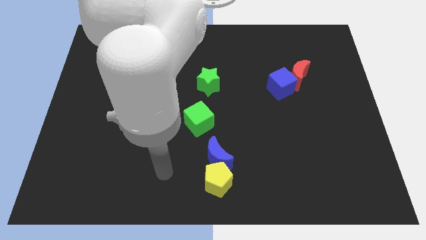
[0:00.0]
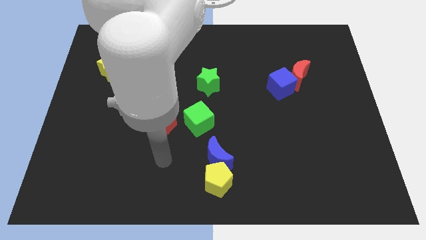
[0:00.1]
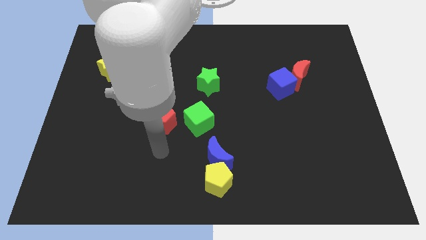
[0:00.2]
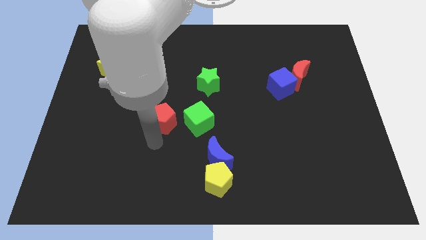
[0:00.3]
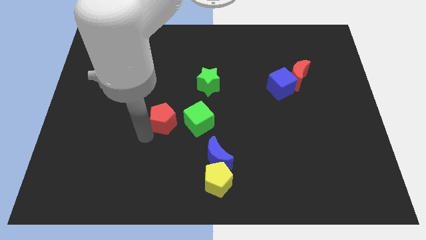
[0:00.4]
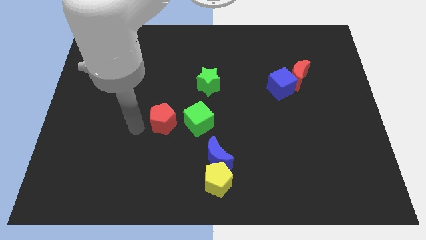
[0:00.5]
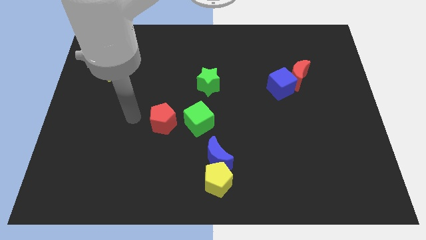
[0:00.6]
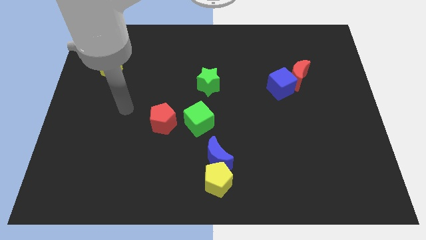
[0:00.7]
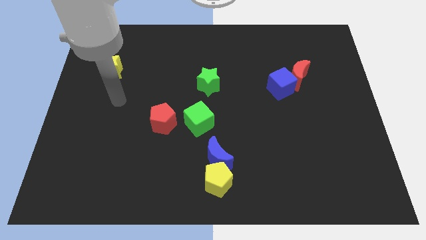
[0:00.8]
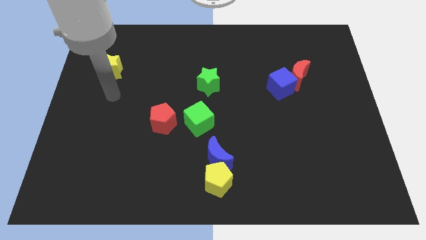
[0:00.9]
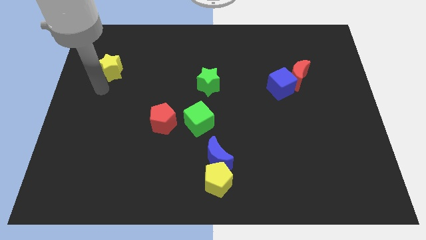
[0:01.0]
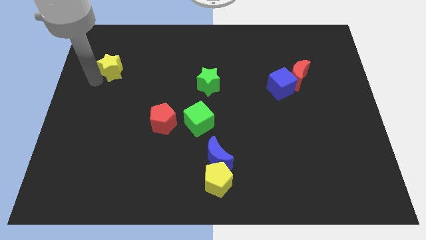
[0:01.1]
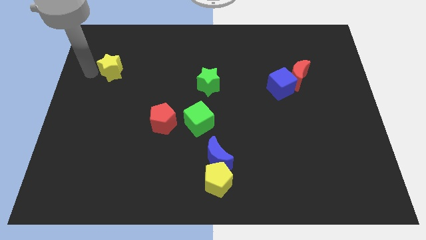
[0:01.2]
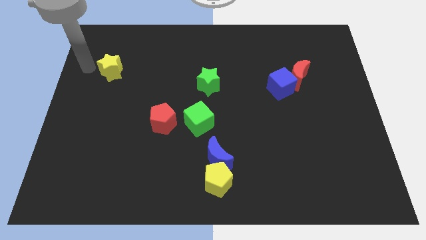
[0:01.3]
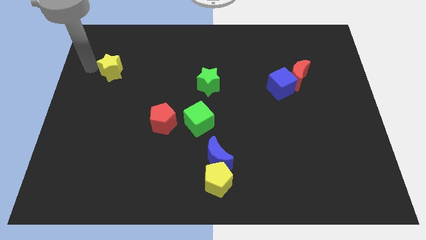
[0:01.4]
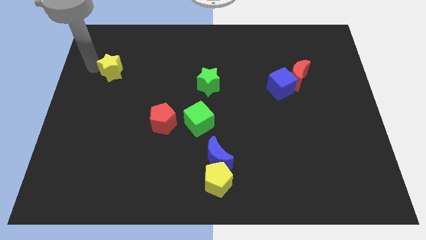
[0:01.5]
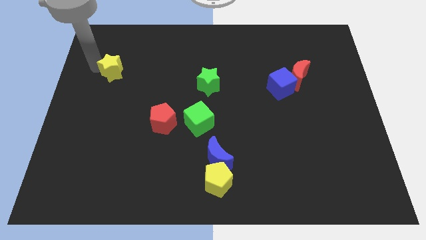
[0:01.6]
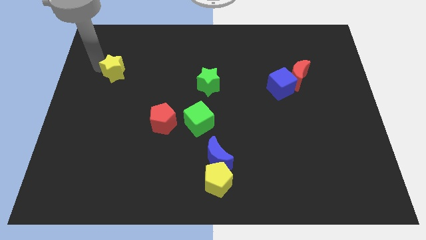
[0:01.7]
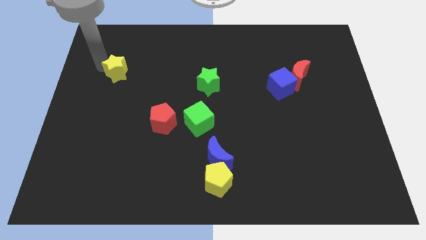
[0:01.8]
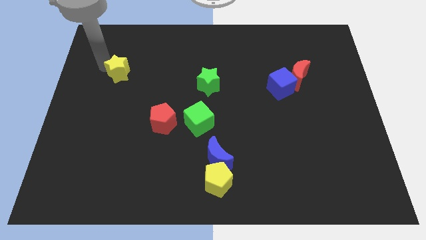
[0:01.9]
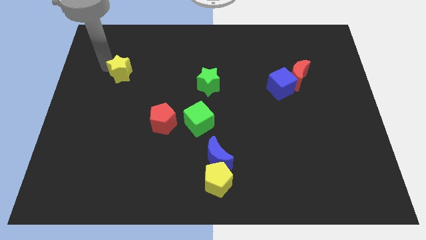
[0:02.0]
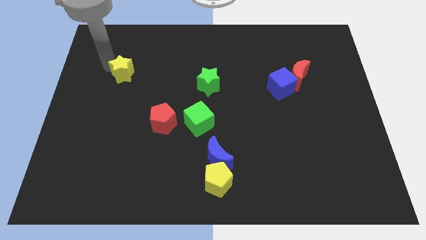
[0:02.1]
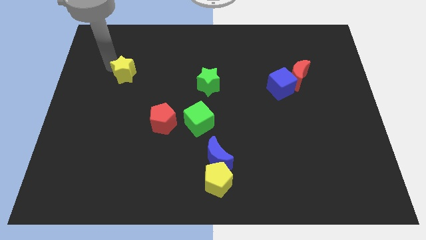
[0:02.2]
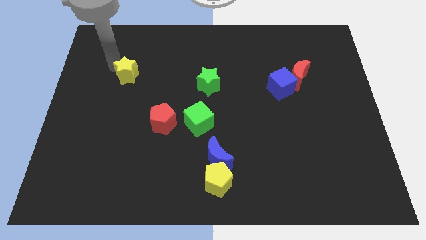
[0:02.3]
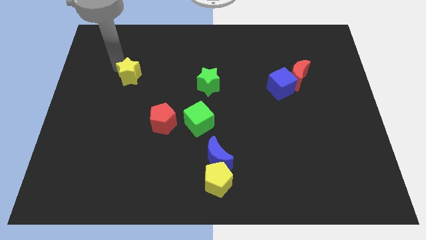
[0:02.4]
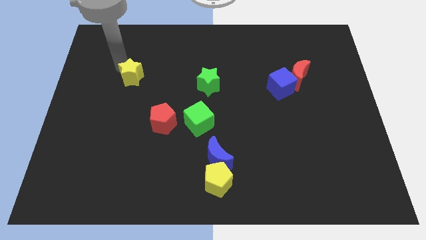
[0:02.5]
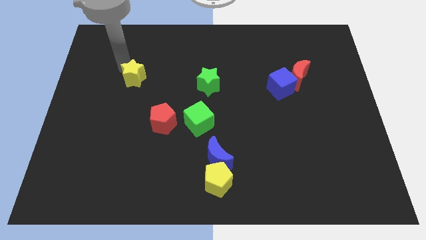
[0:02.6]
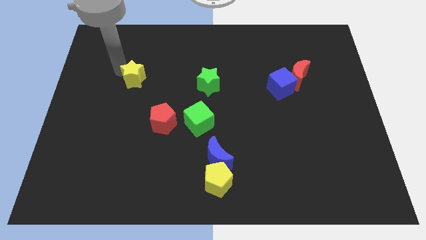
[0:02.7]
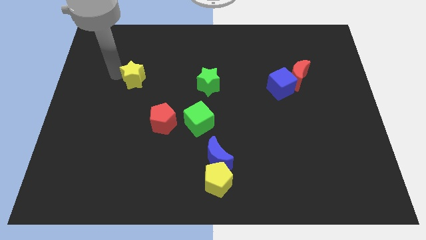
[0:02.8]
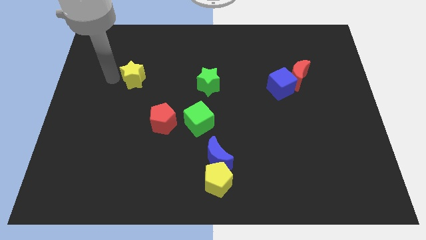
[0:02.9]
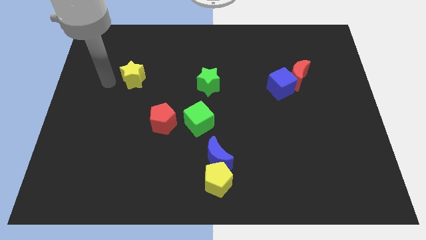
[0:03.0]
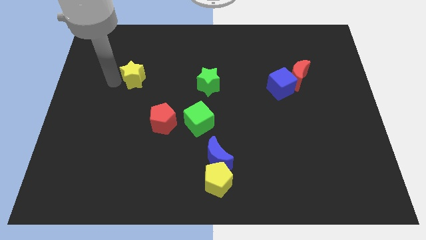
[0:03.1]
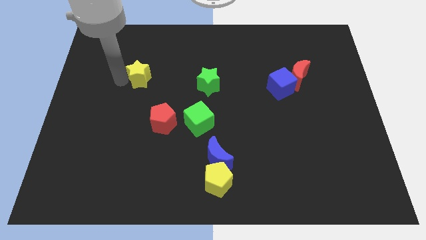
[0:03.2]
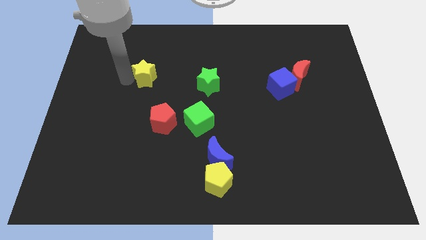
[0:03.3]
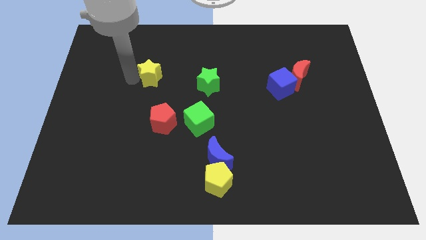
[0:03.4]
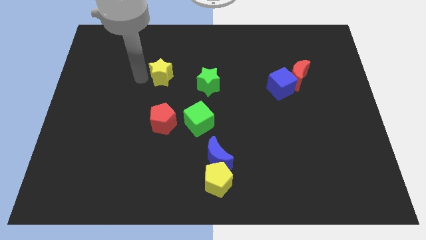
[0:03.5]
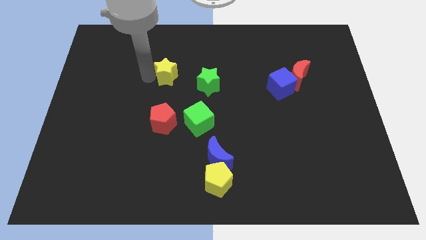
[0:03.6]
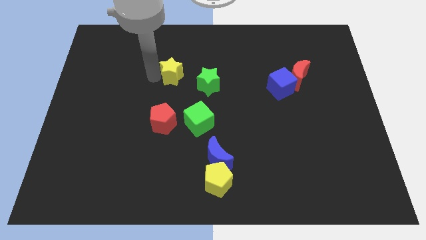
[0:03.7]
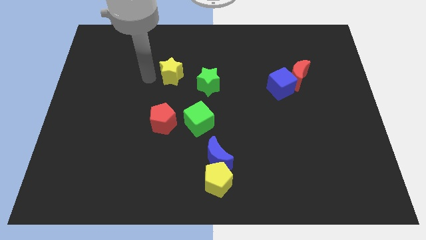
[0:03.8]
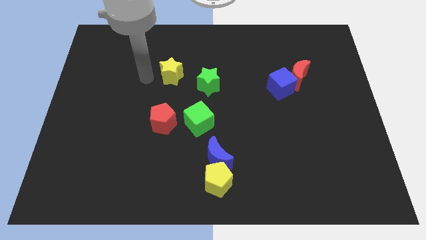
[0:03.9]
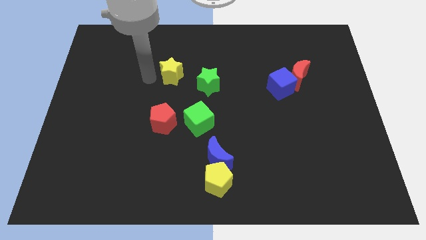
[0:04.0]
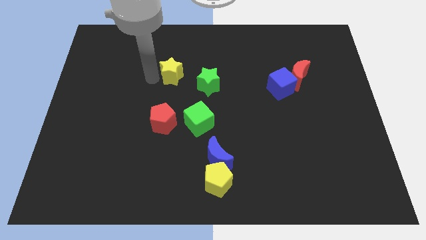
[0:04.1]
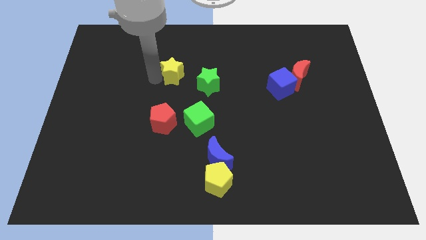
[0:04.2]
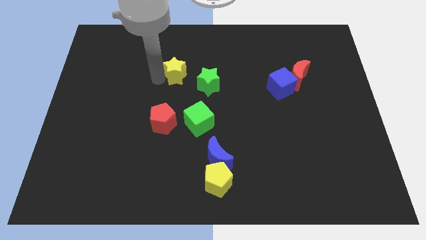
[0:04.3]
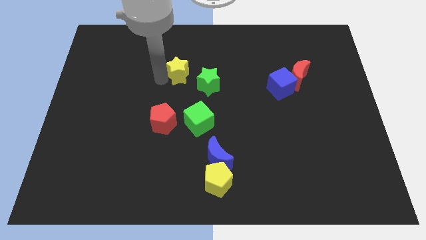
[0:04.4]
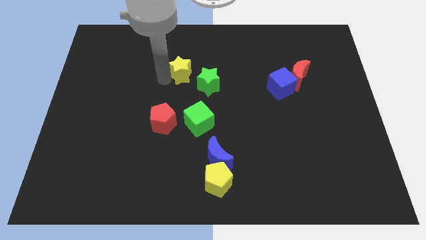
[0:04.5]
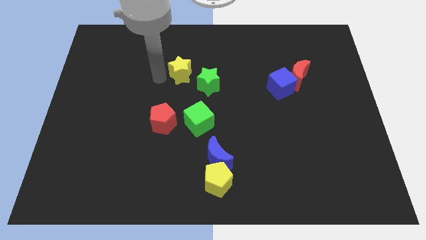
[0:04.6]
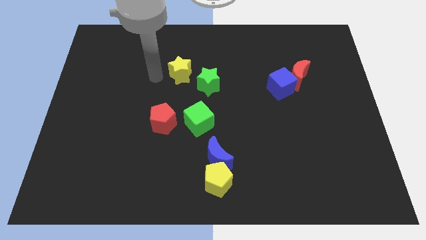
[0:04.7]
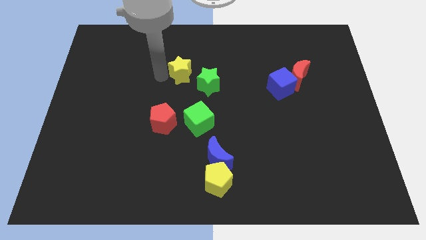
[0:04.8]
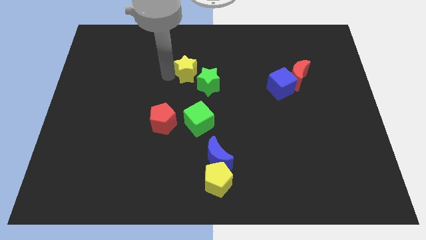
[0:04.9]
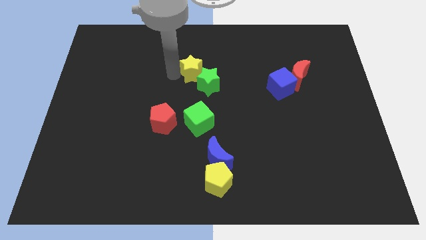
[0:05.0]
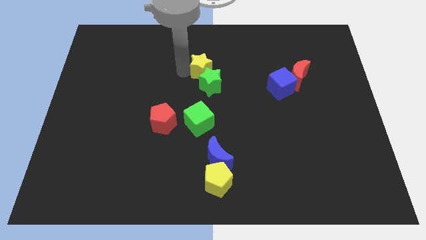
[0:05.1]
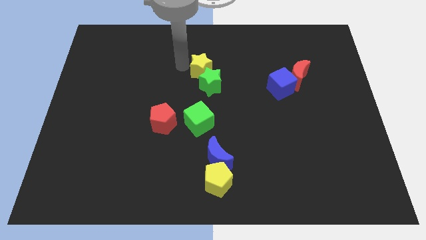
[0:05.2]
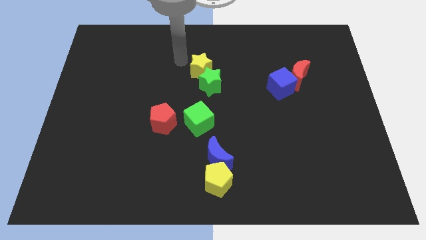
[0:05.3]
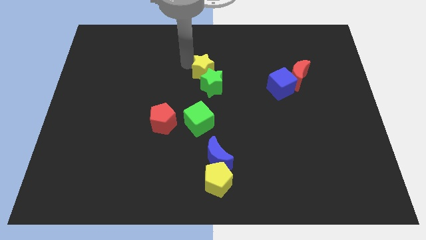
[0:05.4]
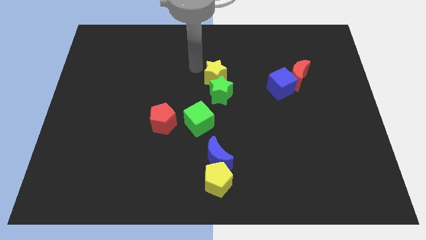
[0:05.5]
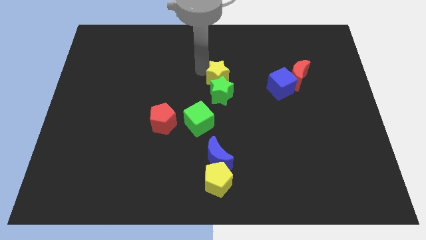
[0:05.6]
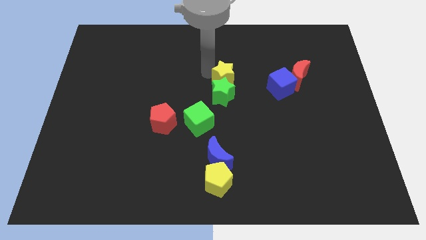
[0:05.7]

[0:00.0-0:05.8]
slide the yellow star left of the blue cube

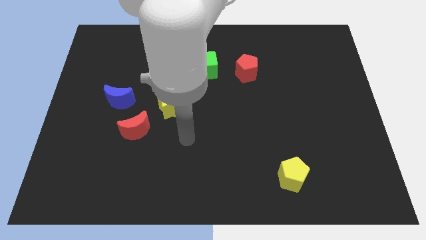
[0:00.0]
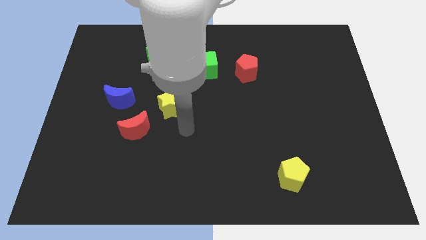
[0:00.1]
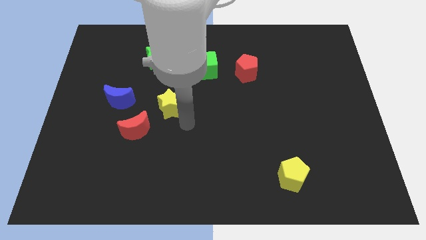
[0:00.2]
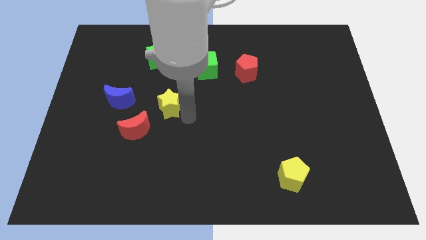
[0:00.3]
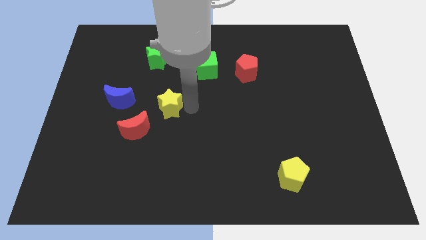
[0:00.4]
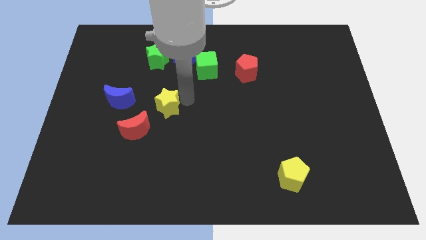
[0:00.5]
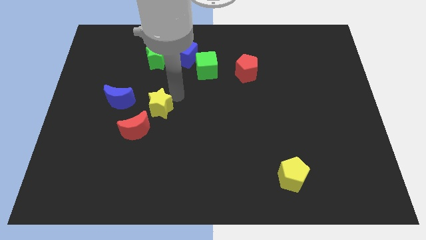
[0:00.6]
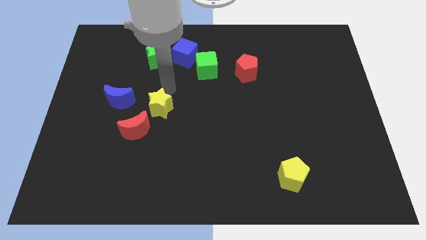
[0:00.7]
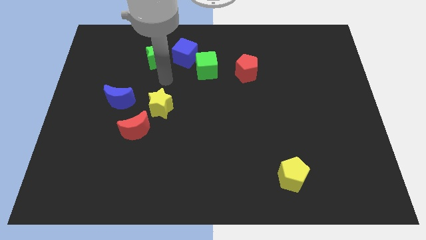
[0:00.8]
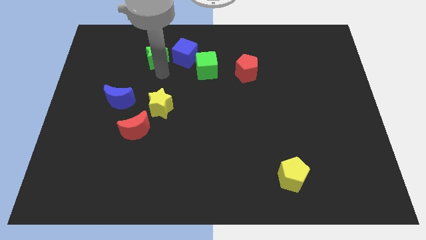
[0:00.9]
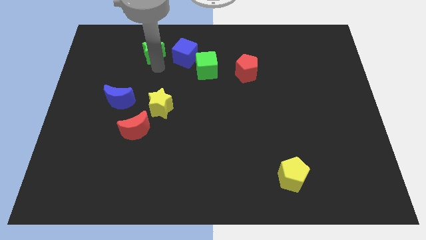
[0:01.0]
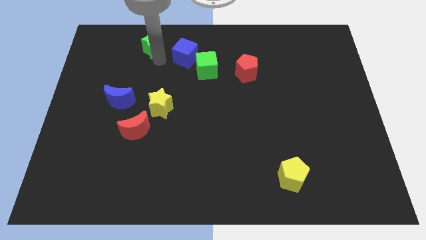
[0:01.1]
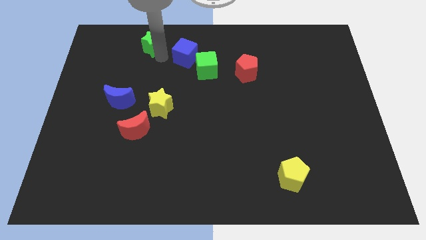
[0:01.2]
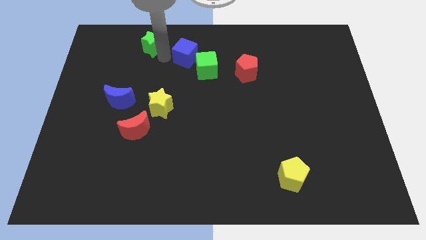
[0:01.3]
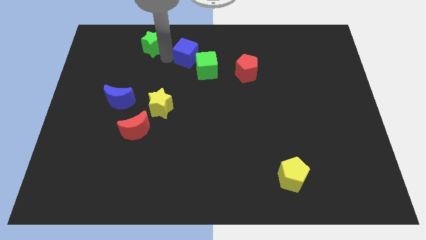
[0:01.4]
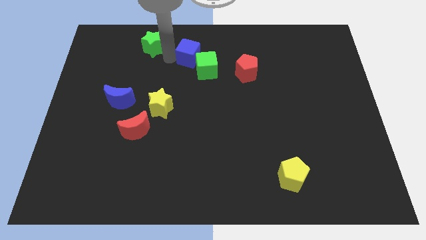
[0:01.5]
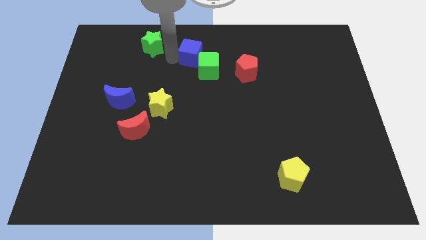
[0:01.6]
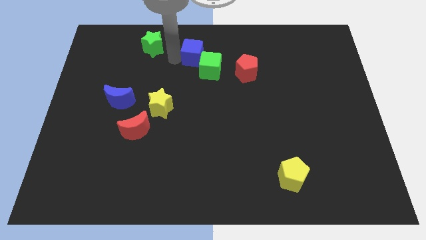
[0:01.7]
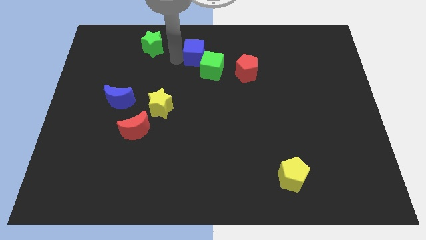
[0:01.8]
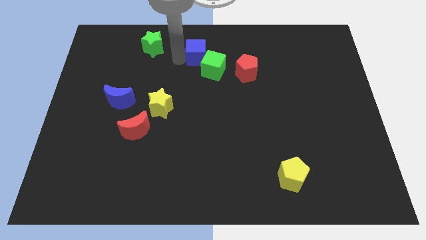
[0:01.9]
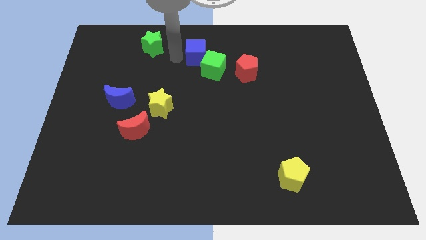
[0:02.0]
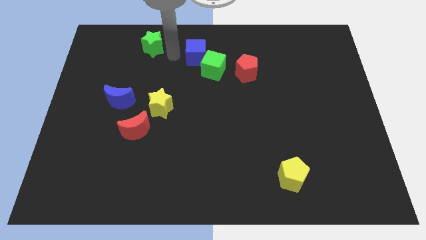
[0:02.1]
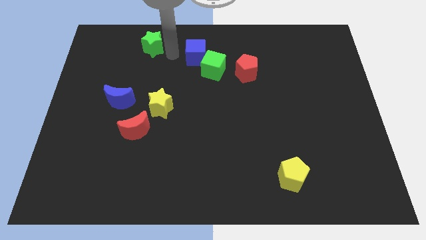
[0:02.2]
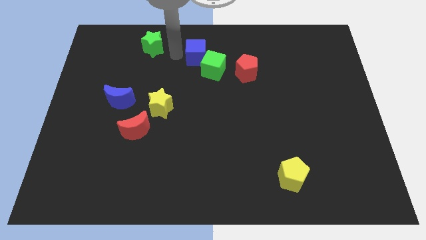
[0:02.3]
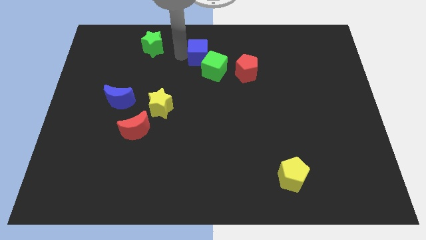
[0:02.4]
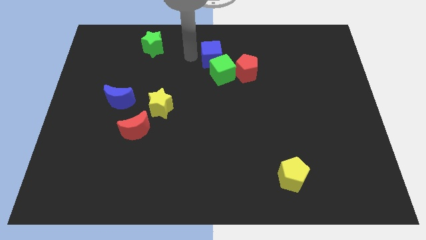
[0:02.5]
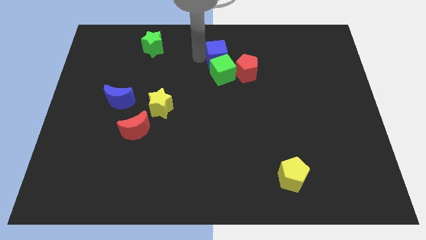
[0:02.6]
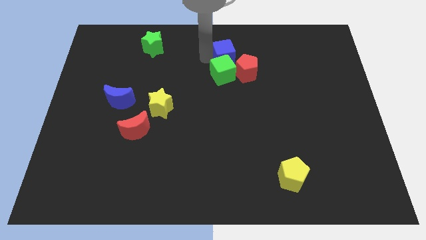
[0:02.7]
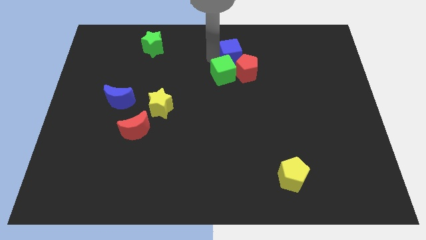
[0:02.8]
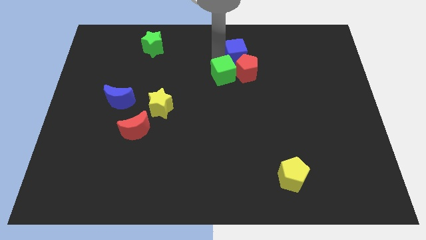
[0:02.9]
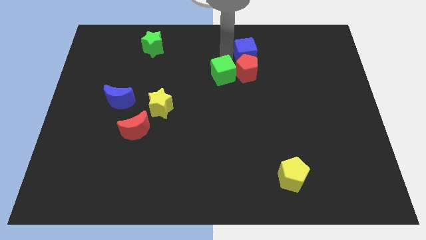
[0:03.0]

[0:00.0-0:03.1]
slide the blue cube to the top right side of the red pentagon
